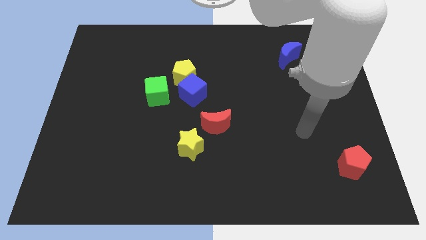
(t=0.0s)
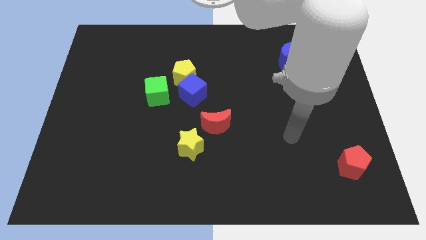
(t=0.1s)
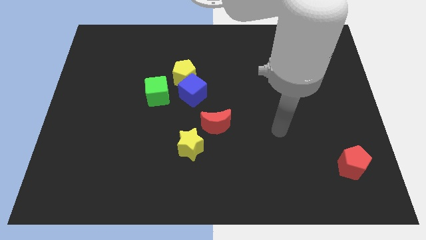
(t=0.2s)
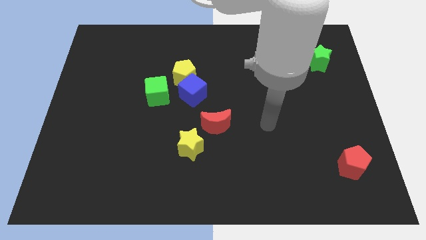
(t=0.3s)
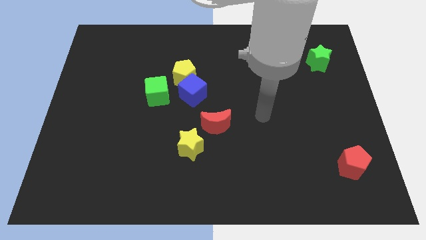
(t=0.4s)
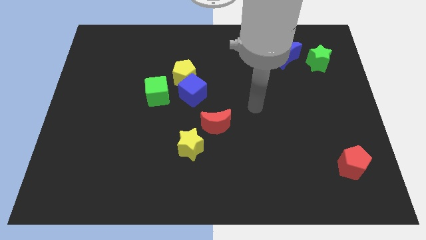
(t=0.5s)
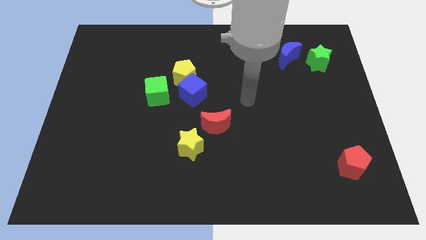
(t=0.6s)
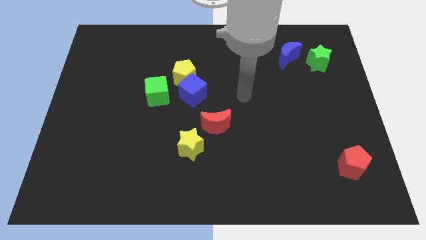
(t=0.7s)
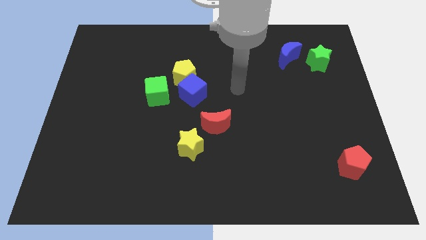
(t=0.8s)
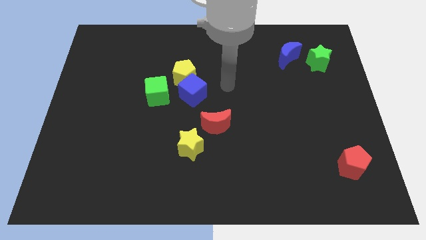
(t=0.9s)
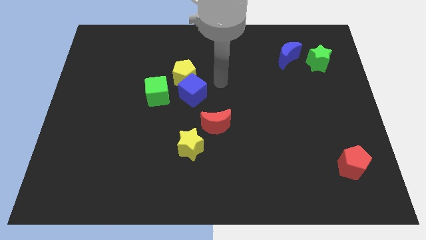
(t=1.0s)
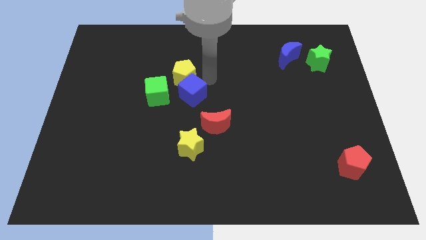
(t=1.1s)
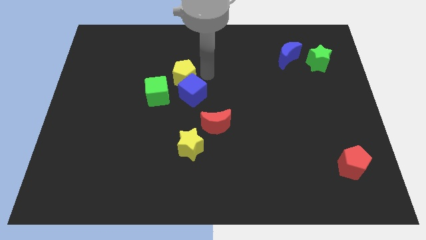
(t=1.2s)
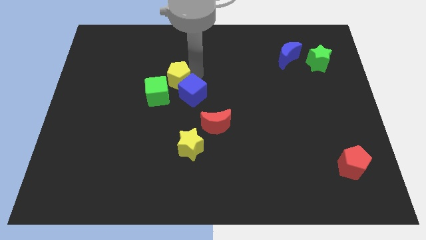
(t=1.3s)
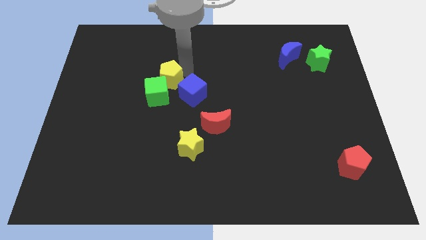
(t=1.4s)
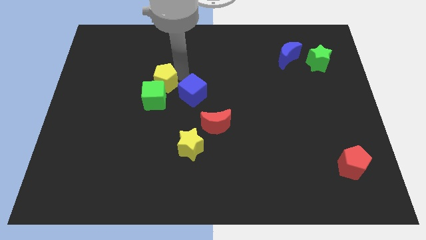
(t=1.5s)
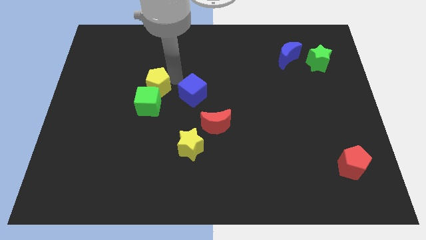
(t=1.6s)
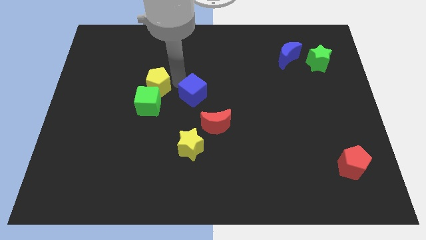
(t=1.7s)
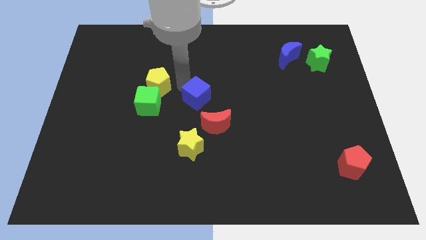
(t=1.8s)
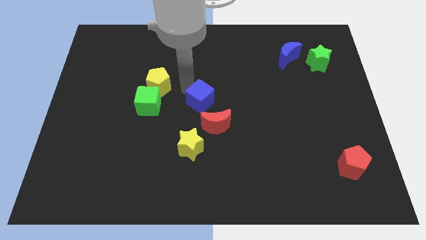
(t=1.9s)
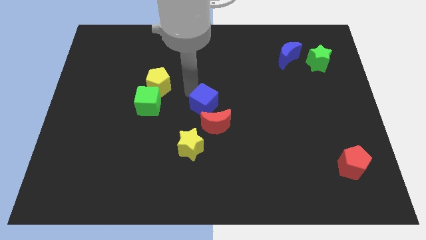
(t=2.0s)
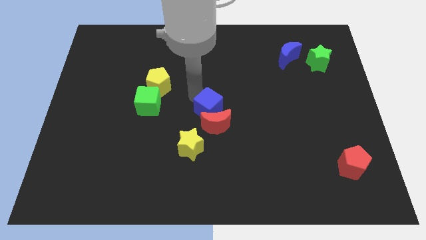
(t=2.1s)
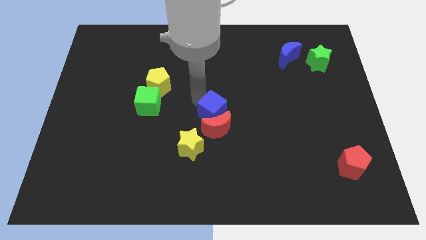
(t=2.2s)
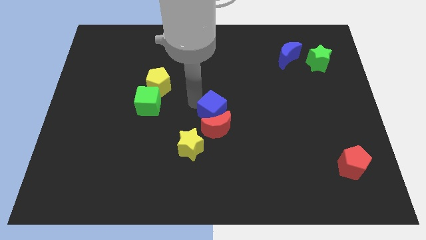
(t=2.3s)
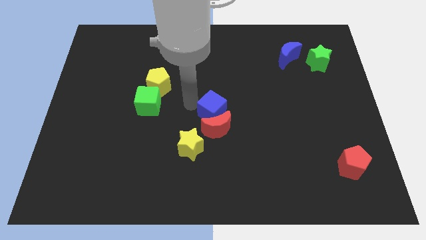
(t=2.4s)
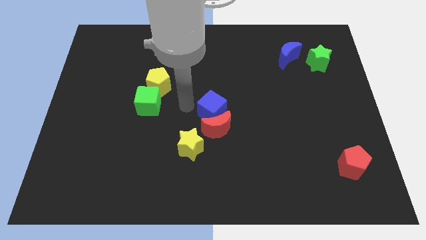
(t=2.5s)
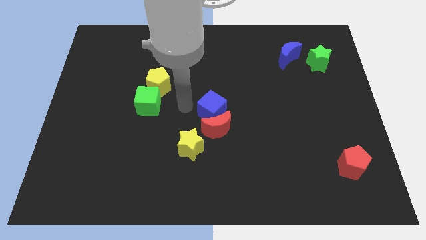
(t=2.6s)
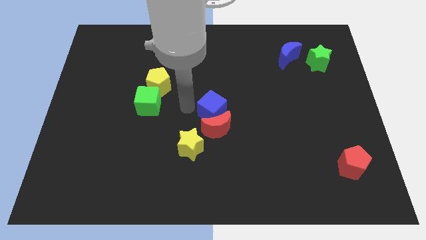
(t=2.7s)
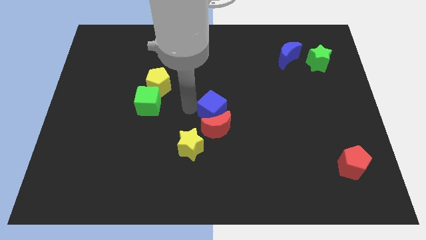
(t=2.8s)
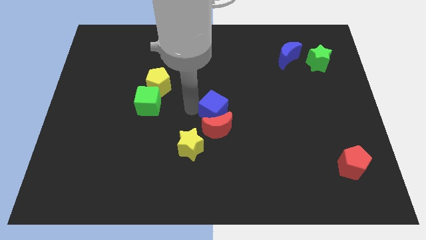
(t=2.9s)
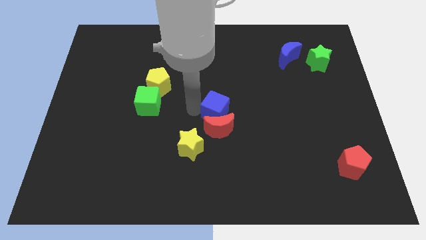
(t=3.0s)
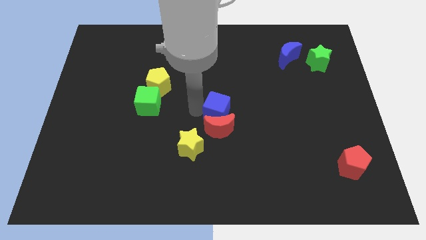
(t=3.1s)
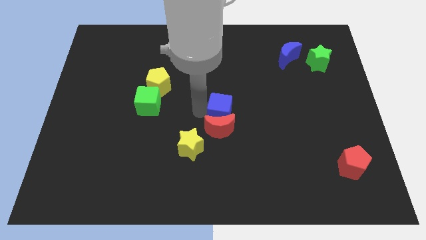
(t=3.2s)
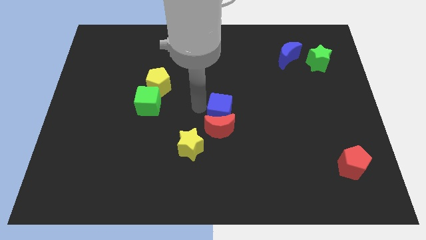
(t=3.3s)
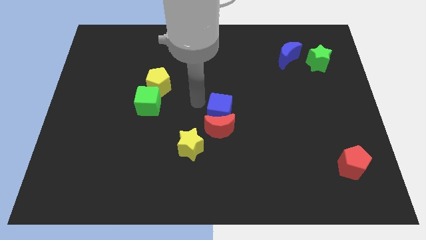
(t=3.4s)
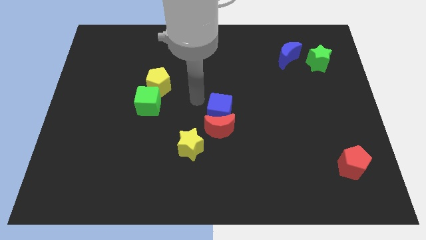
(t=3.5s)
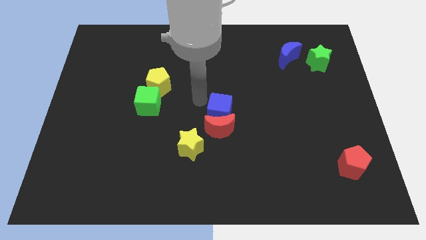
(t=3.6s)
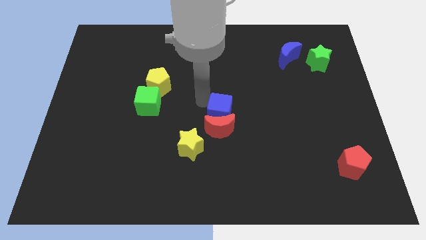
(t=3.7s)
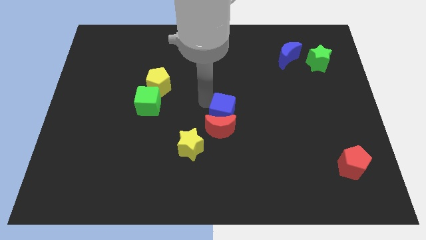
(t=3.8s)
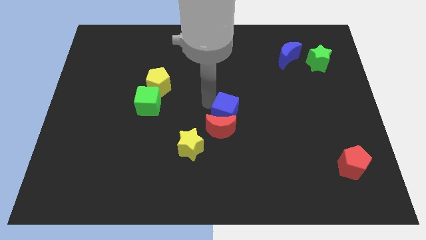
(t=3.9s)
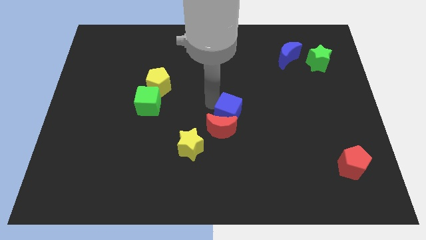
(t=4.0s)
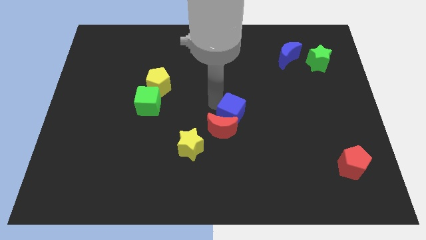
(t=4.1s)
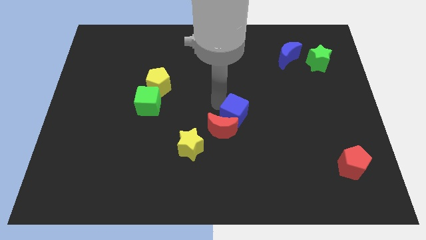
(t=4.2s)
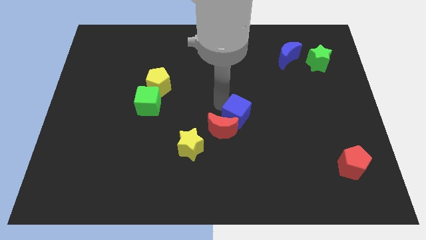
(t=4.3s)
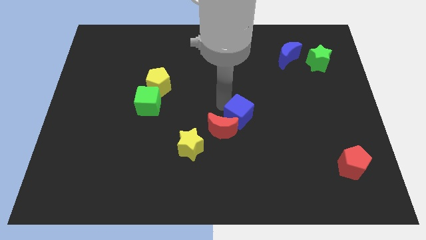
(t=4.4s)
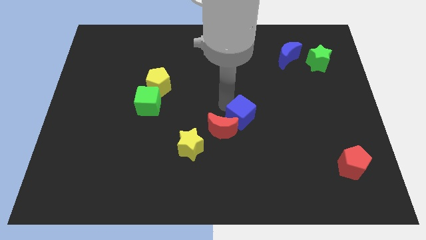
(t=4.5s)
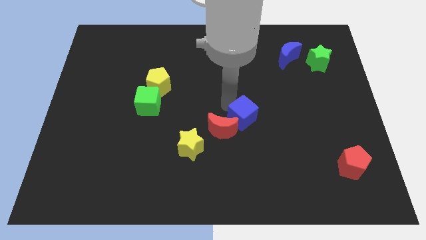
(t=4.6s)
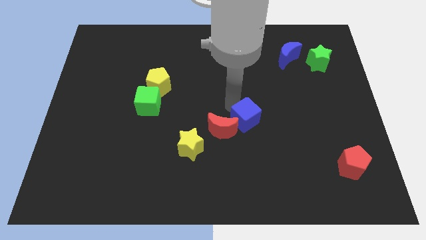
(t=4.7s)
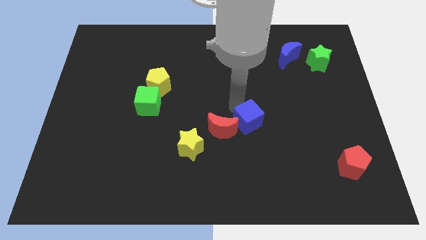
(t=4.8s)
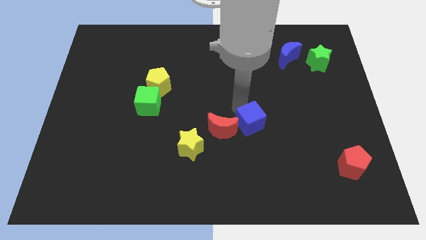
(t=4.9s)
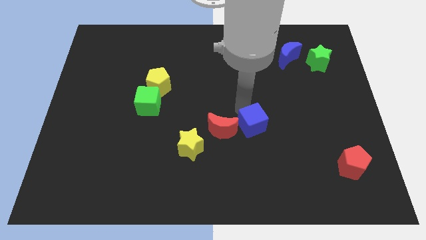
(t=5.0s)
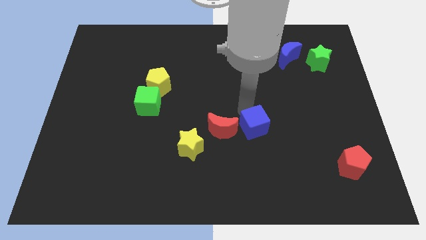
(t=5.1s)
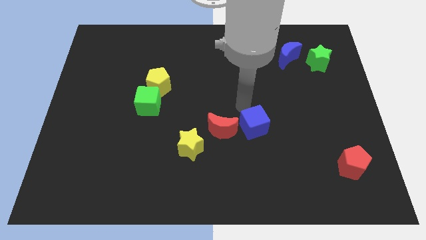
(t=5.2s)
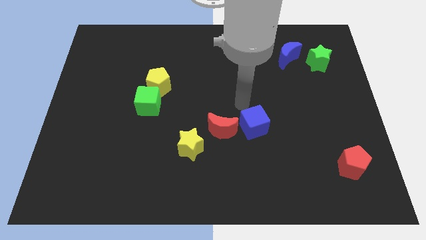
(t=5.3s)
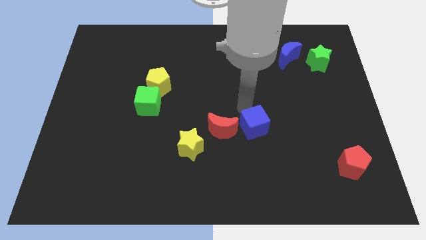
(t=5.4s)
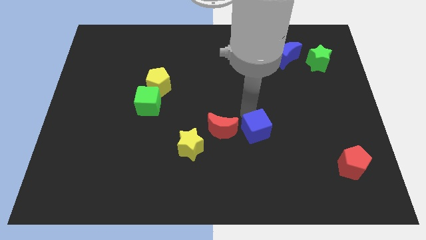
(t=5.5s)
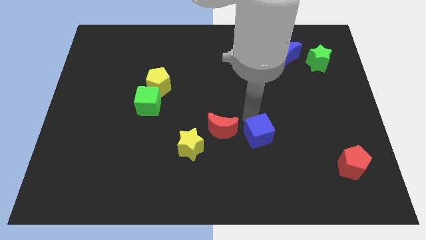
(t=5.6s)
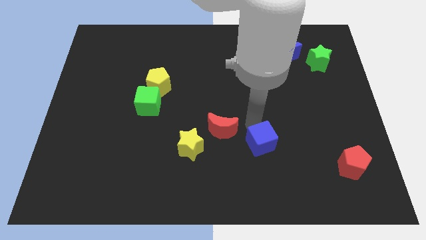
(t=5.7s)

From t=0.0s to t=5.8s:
move the blue cube down and to the right

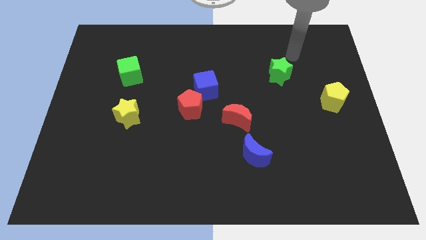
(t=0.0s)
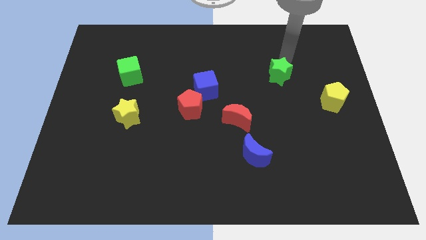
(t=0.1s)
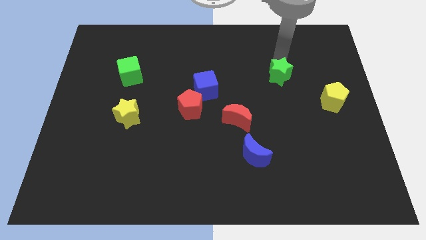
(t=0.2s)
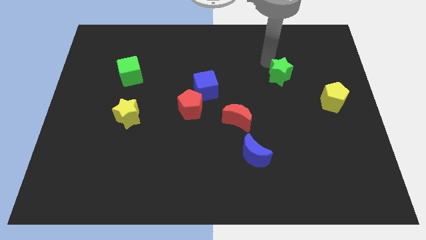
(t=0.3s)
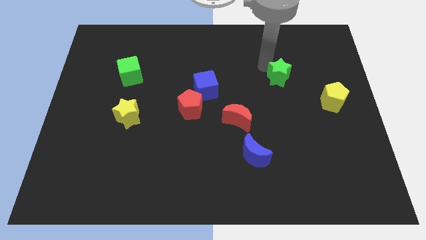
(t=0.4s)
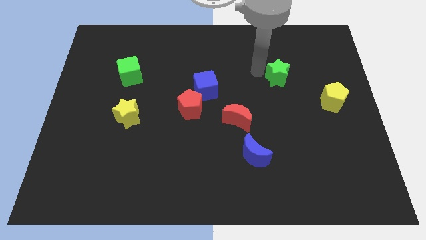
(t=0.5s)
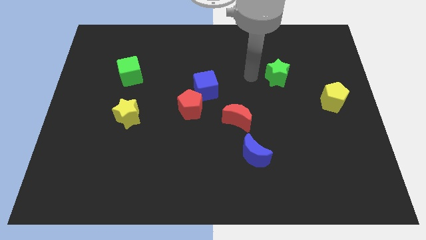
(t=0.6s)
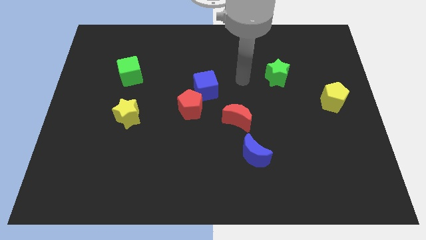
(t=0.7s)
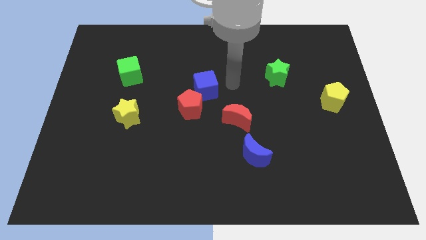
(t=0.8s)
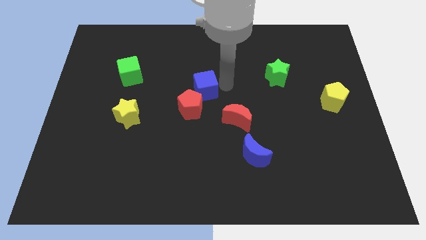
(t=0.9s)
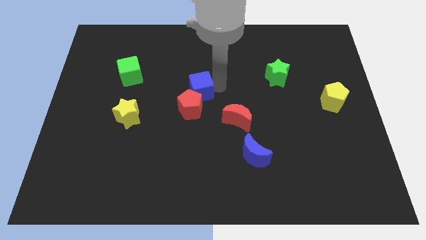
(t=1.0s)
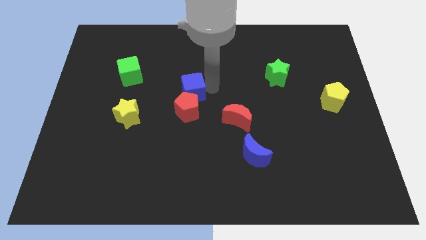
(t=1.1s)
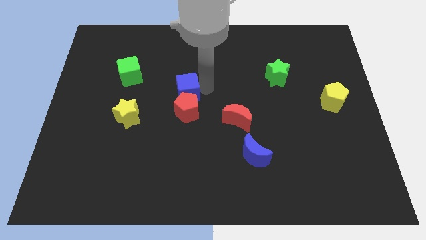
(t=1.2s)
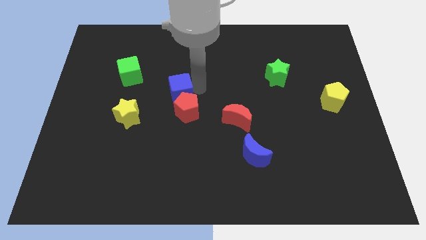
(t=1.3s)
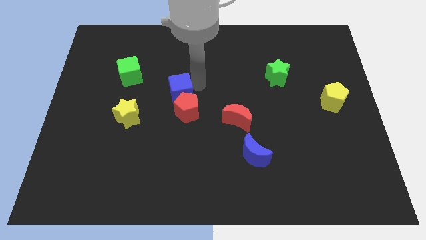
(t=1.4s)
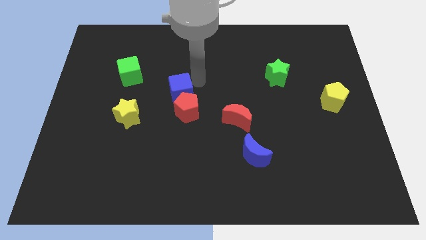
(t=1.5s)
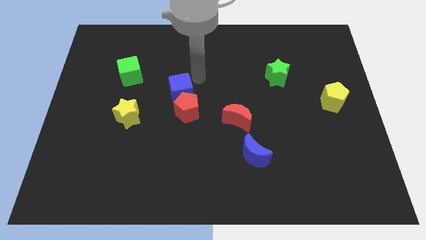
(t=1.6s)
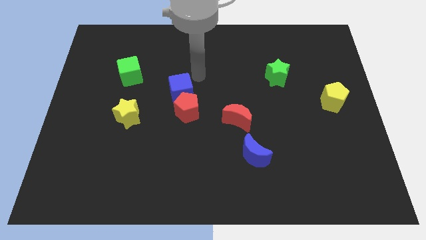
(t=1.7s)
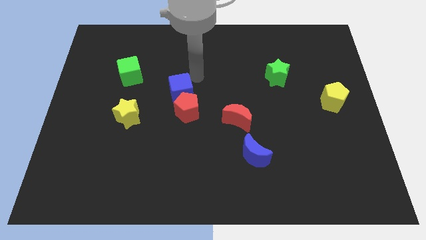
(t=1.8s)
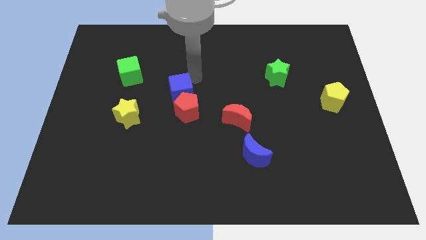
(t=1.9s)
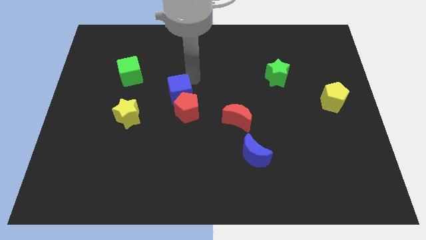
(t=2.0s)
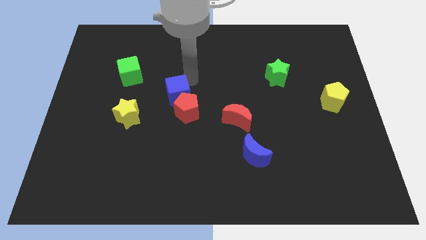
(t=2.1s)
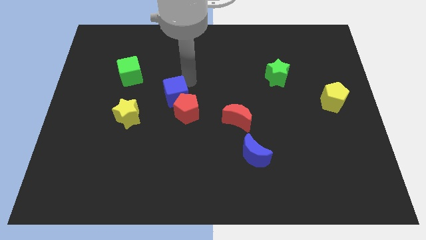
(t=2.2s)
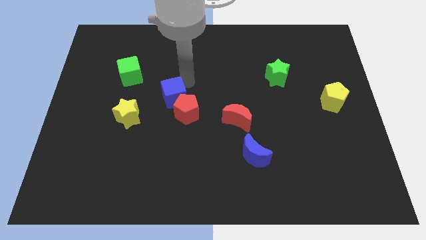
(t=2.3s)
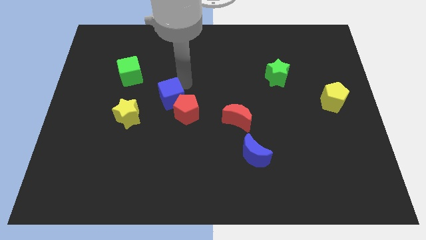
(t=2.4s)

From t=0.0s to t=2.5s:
push the blue cube somewhat diagonally down and left
